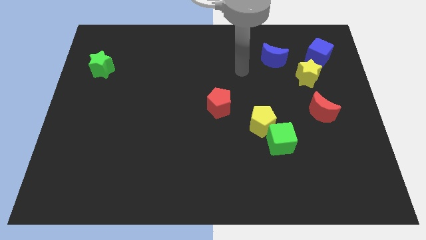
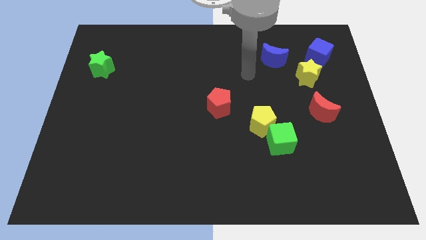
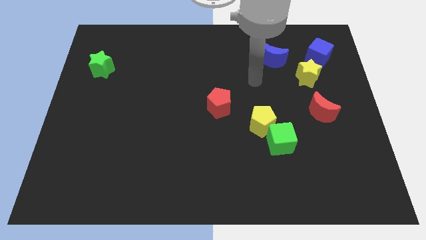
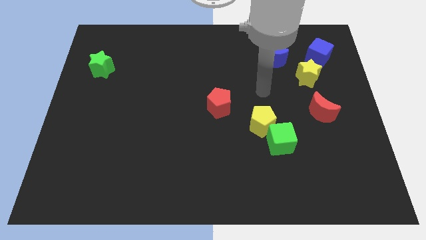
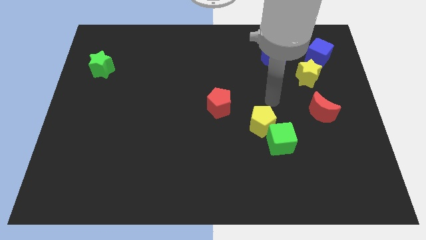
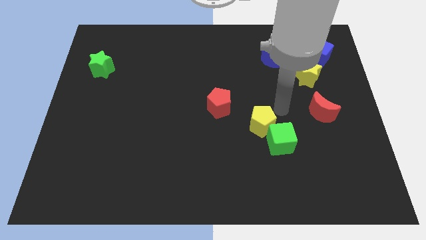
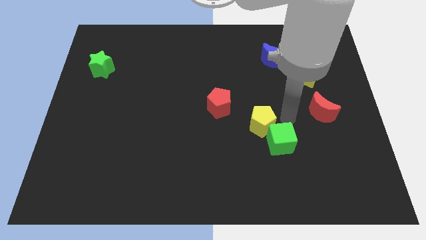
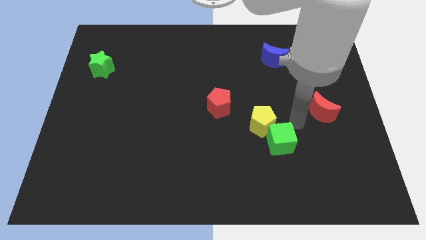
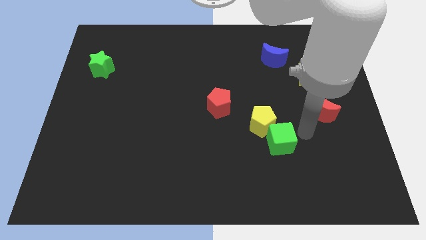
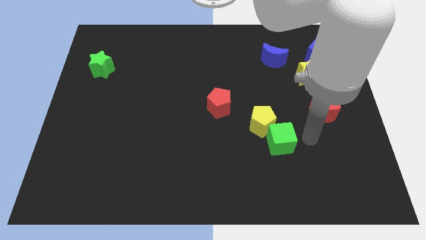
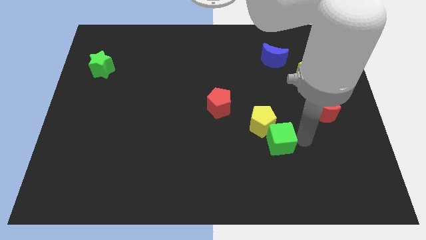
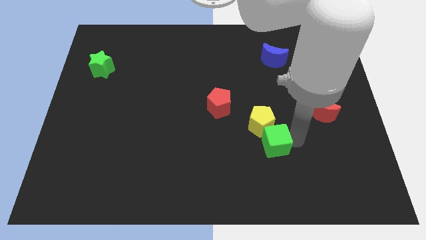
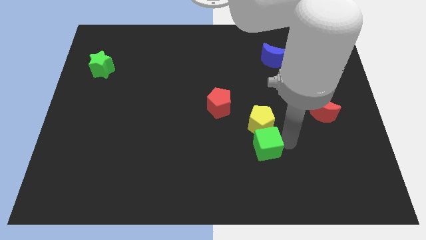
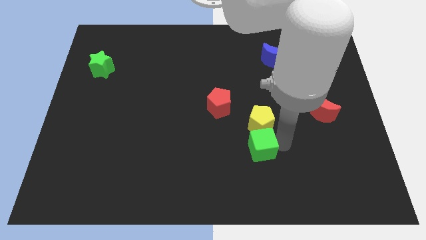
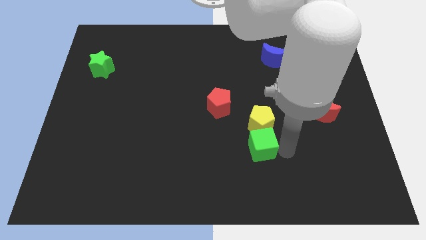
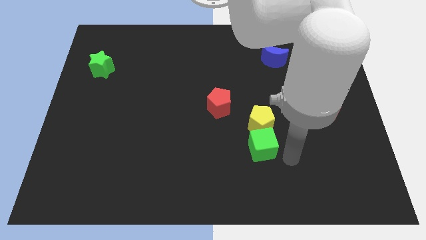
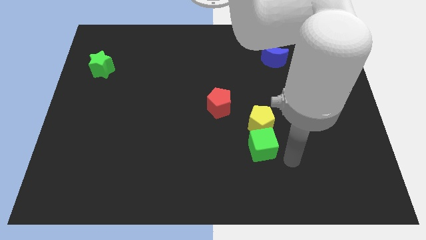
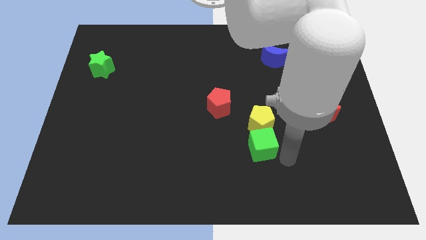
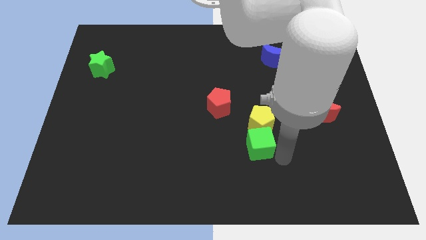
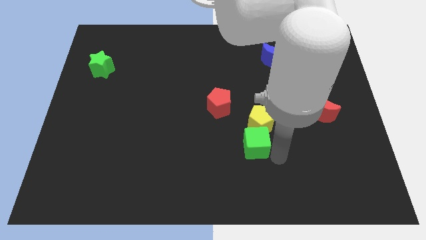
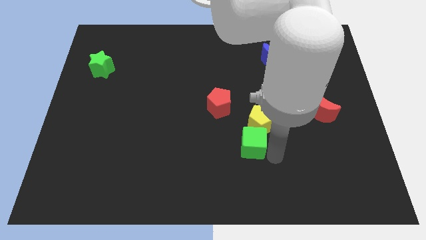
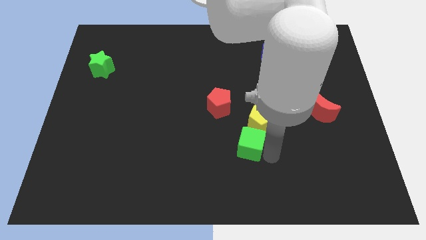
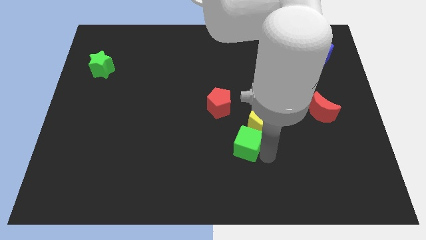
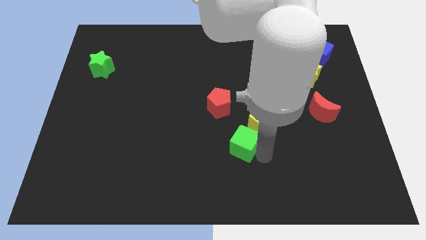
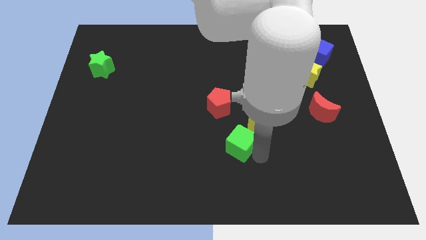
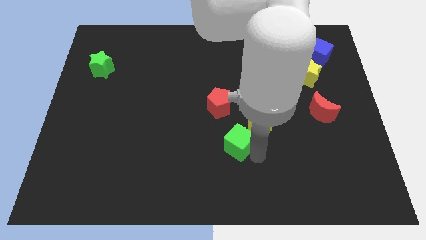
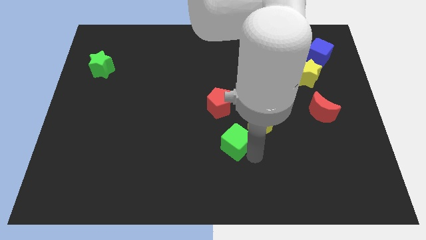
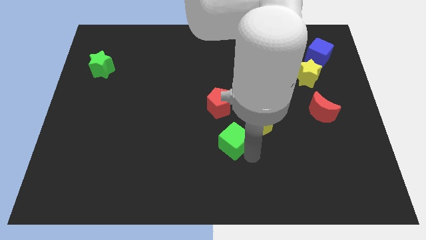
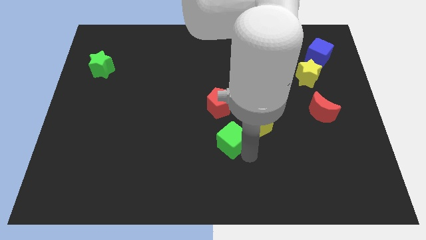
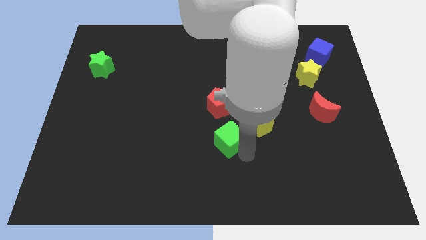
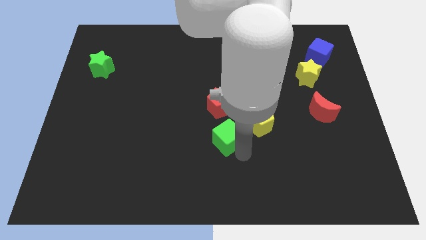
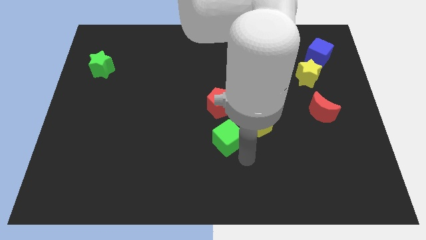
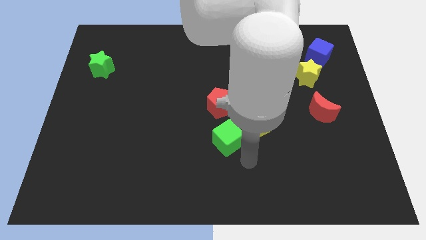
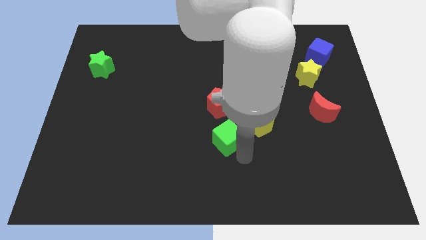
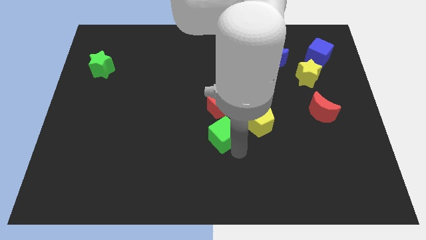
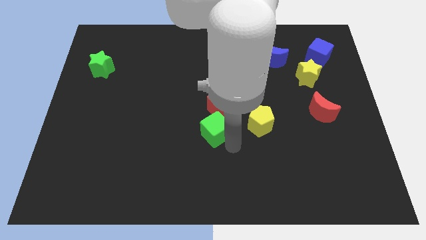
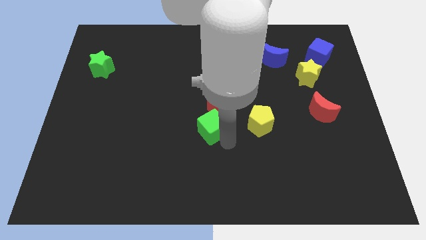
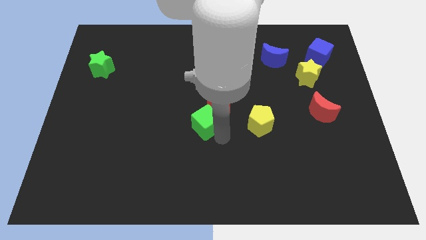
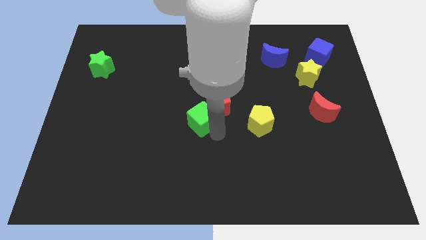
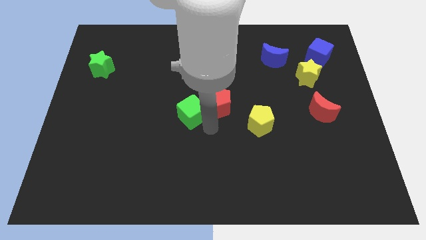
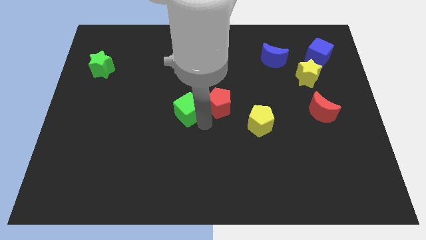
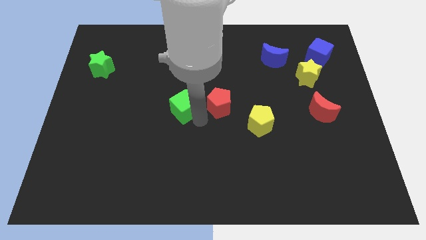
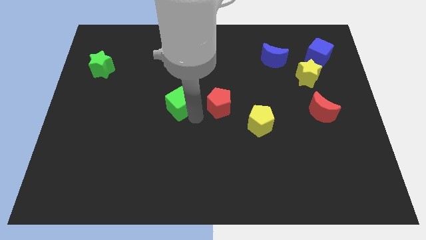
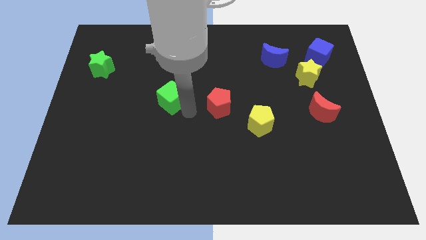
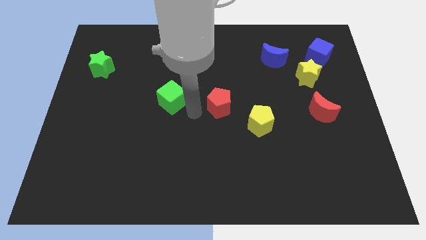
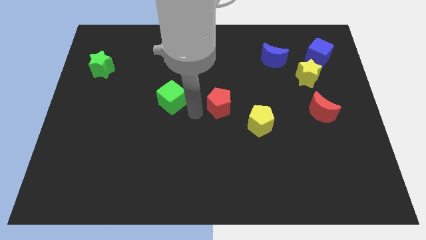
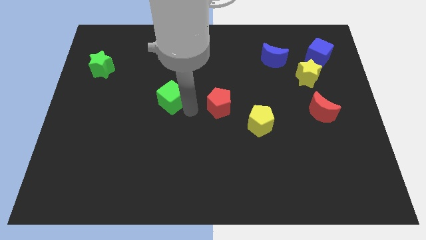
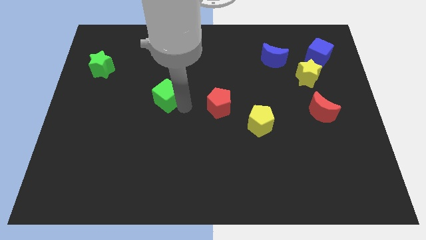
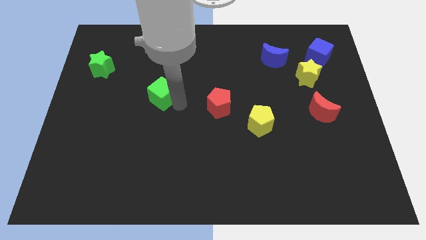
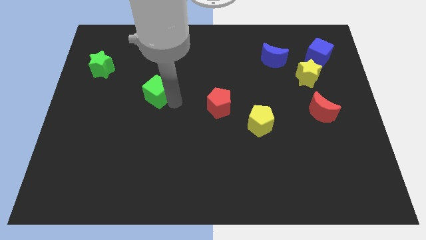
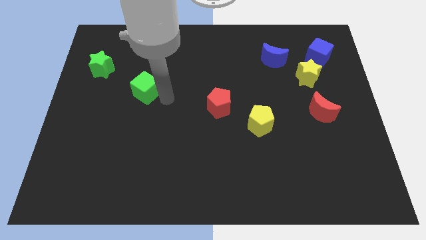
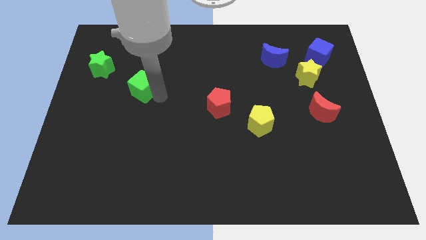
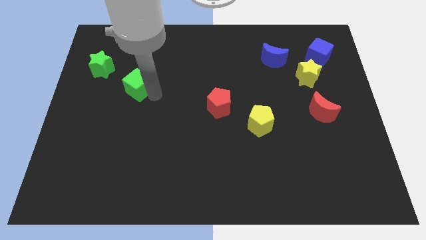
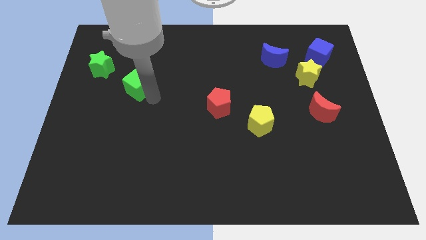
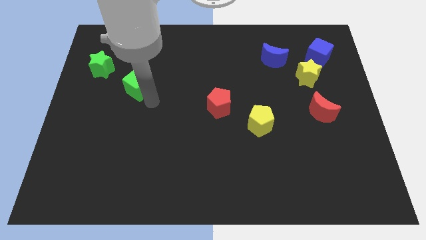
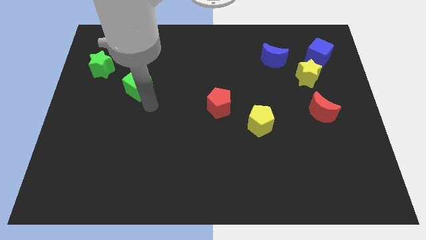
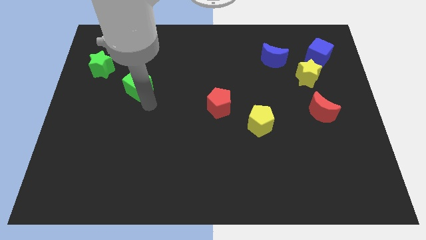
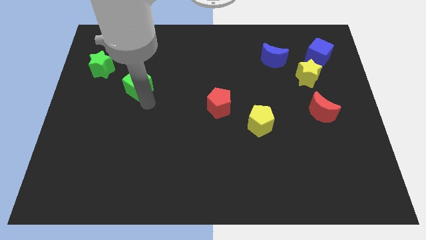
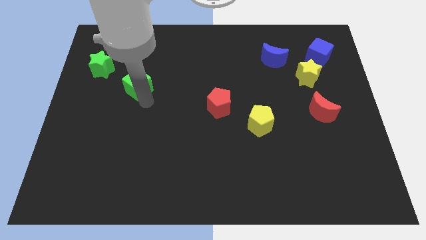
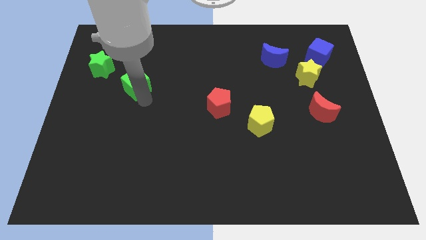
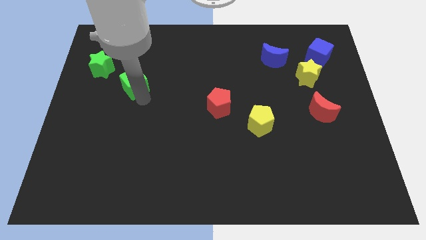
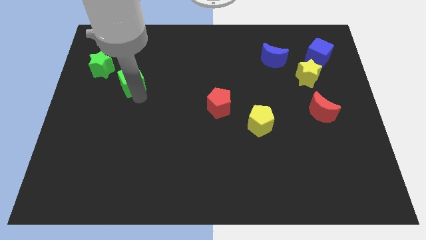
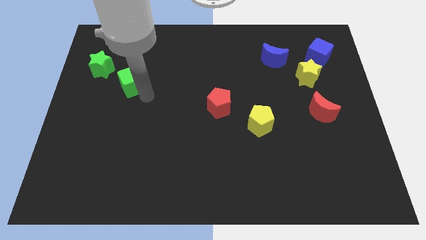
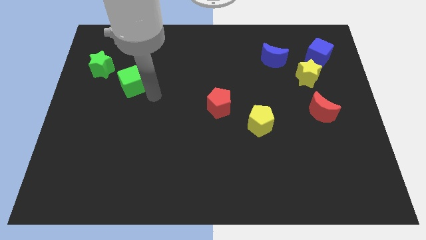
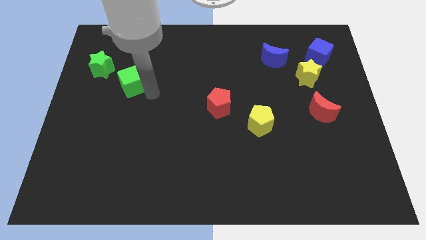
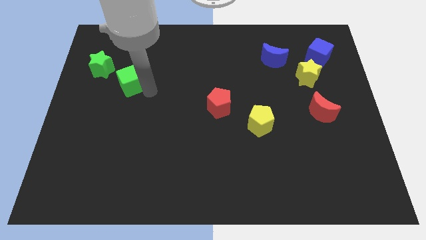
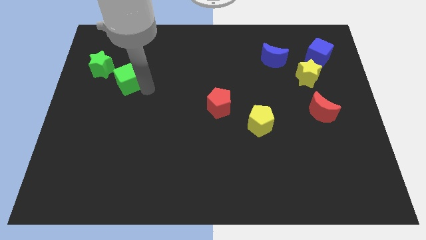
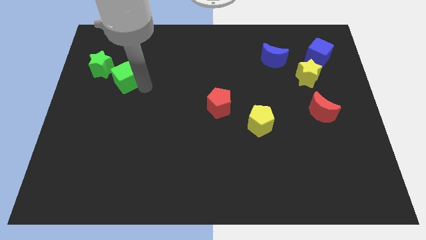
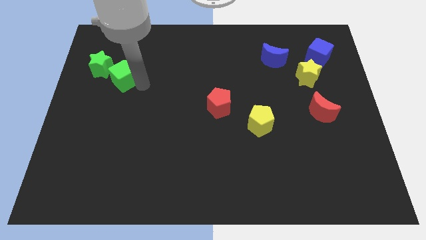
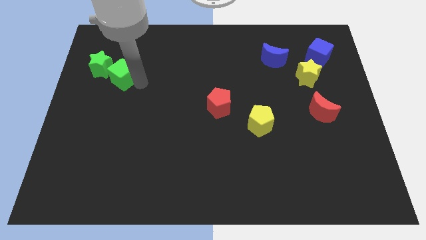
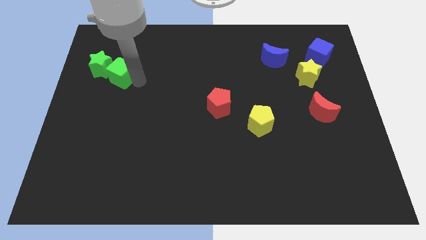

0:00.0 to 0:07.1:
move the green cube to the green star

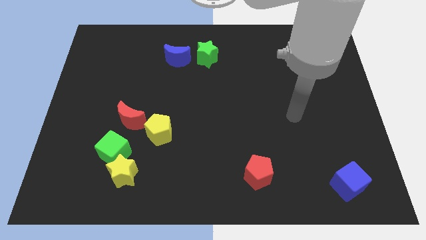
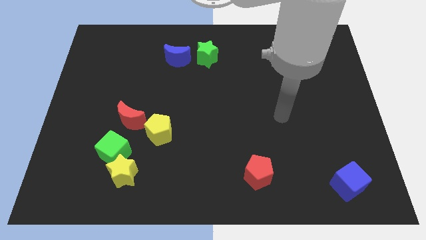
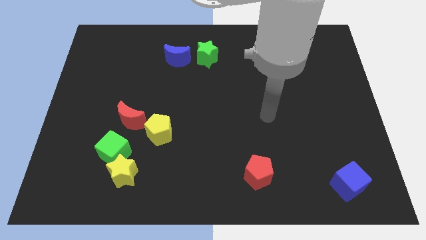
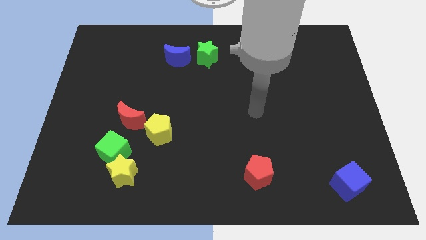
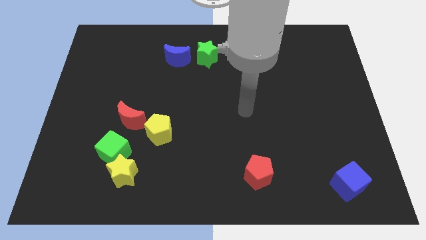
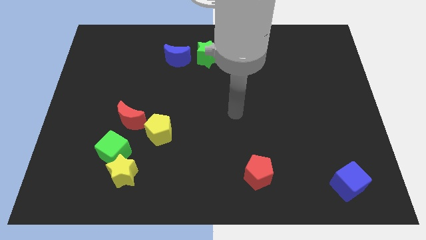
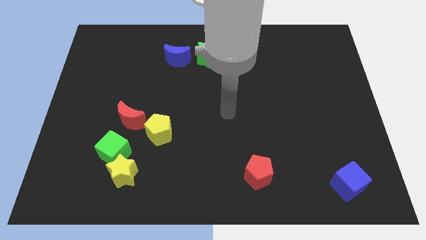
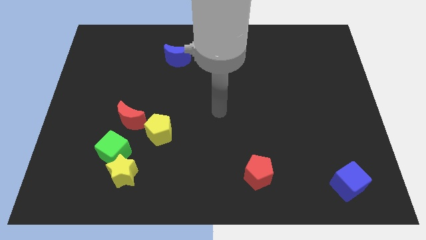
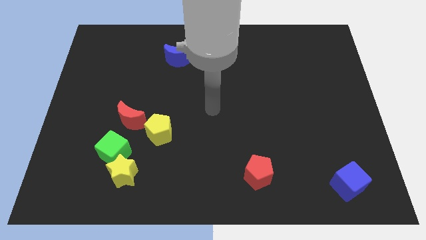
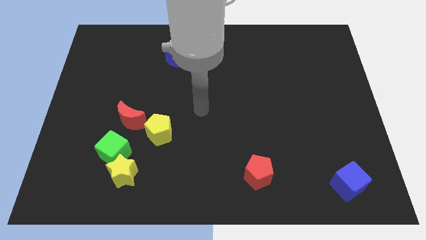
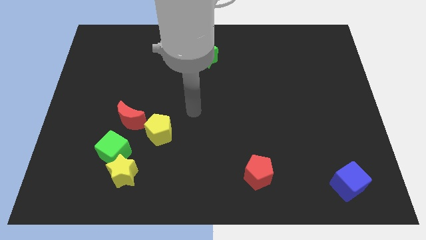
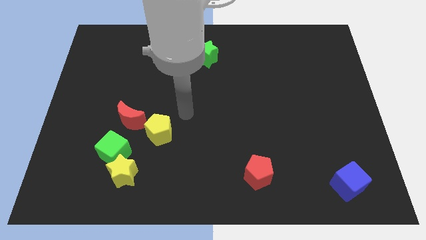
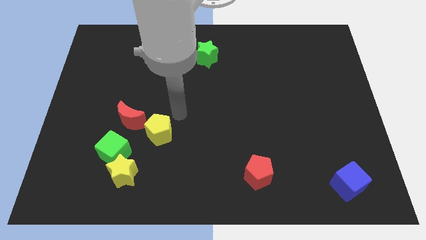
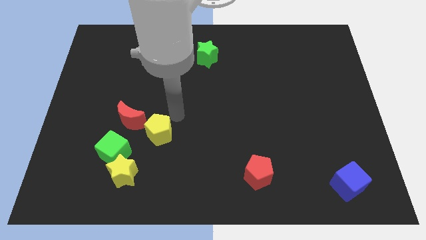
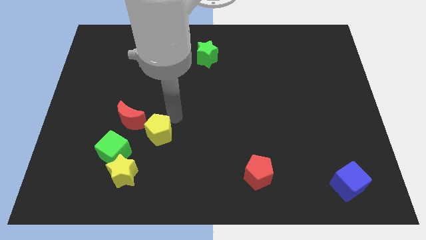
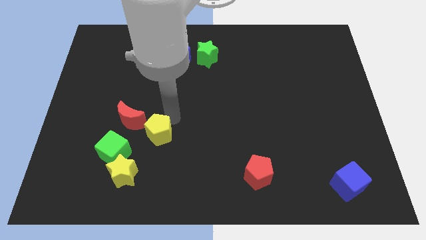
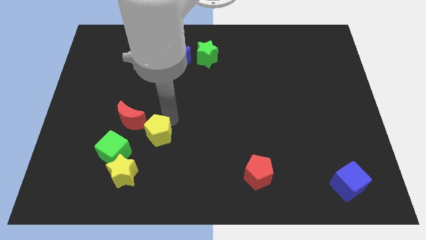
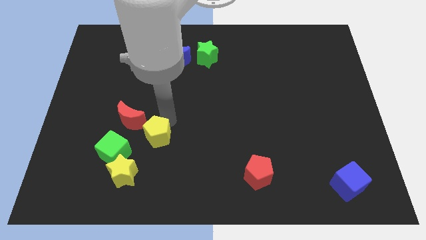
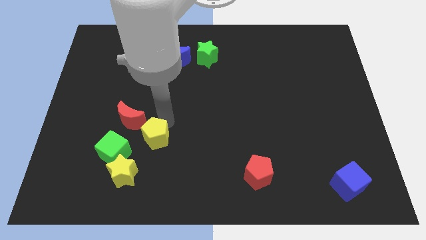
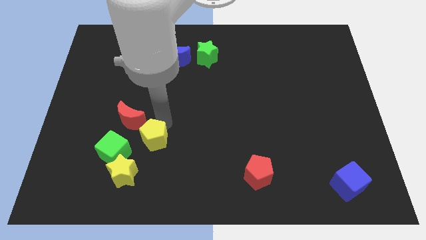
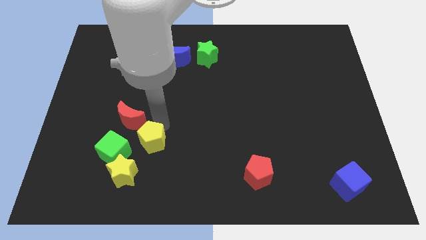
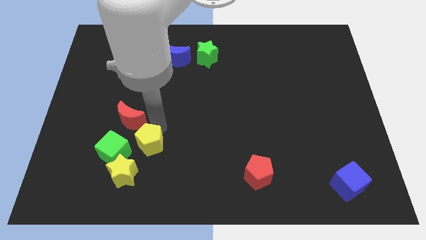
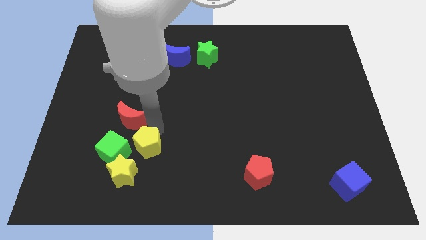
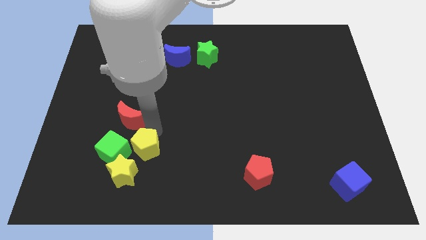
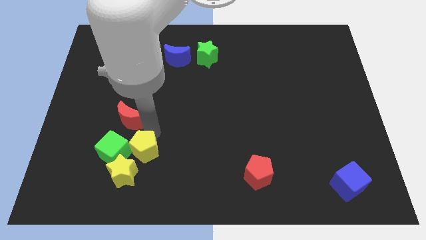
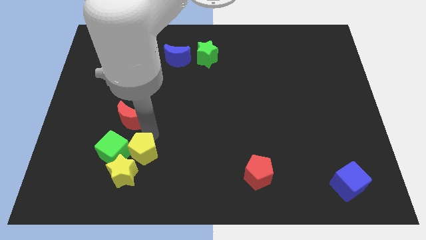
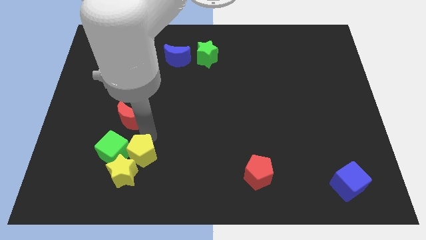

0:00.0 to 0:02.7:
move the yellow pentagon to the yellow star
